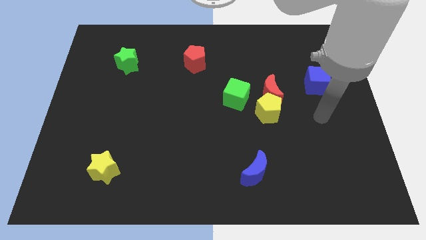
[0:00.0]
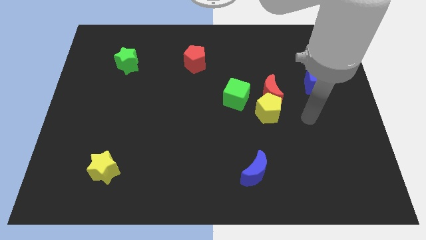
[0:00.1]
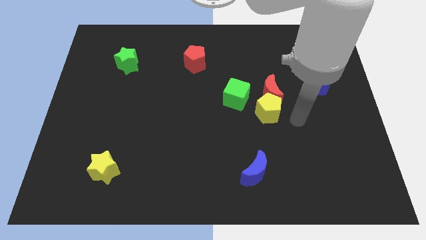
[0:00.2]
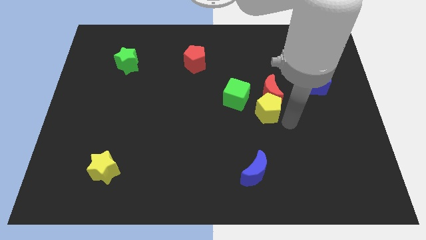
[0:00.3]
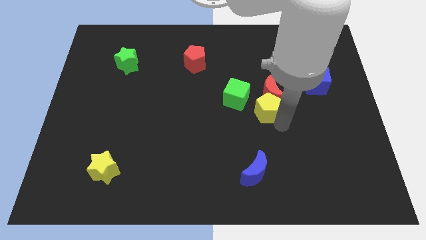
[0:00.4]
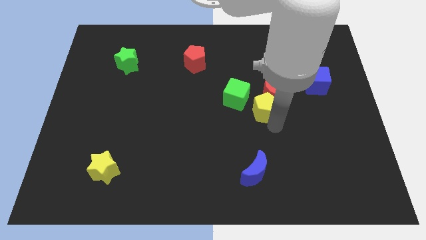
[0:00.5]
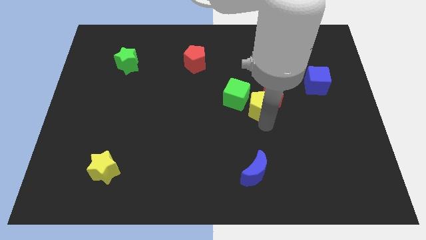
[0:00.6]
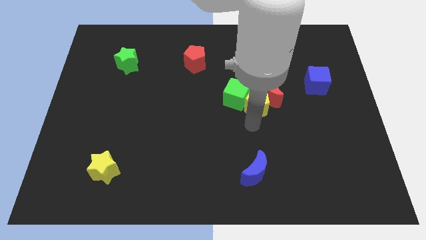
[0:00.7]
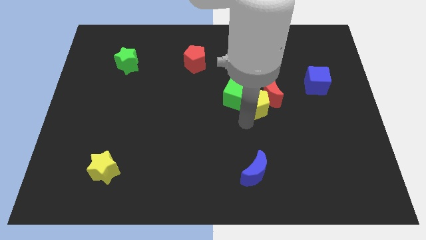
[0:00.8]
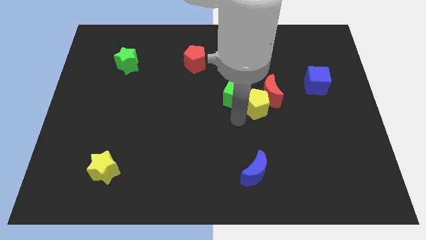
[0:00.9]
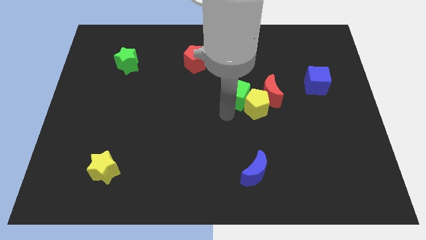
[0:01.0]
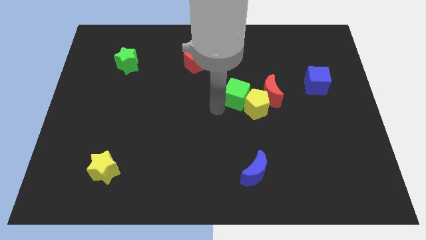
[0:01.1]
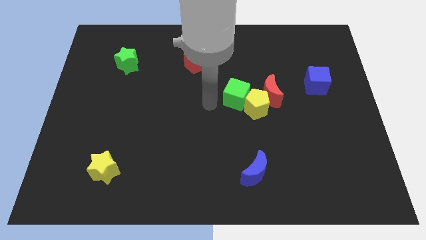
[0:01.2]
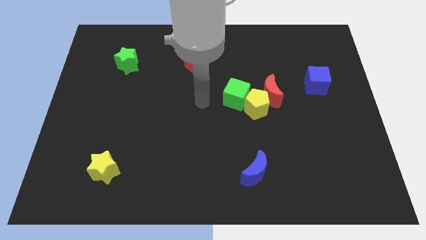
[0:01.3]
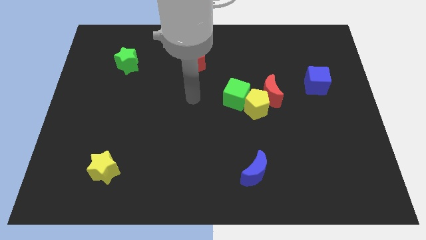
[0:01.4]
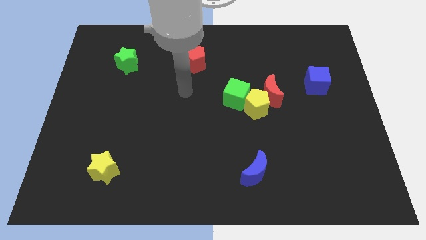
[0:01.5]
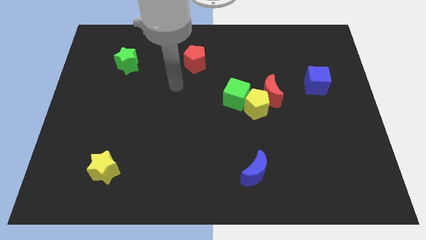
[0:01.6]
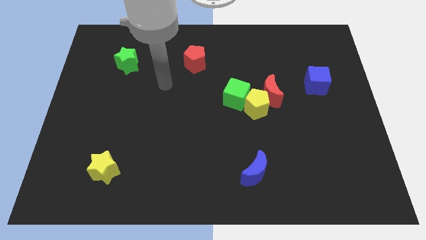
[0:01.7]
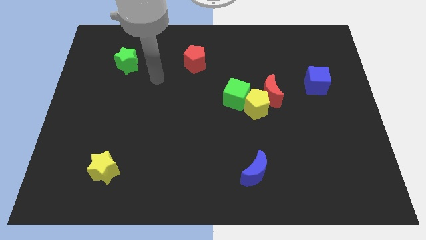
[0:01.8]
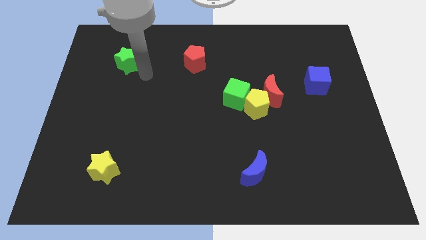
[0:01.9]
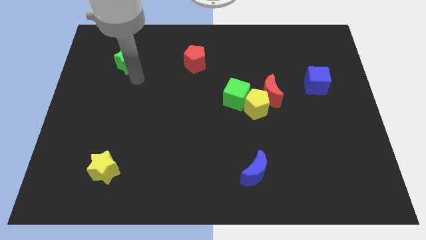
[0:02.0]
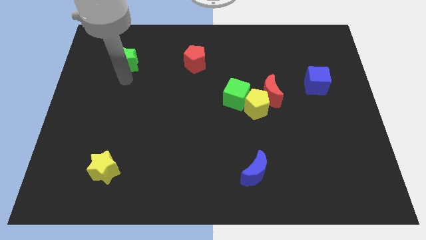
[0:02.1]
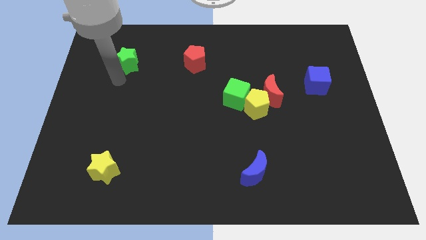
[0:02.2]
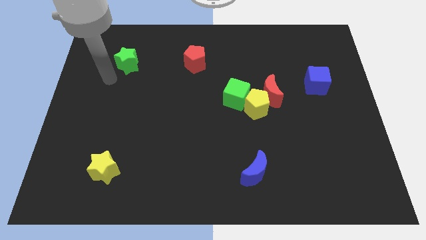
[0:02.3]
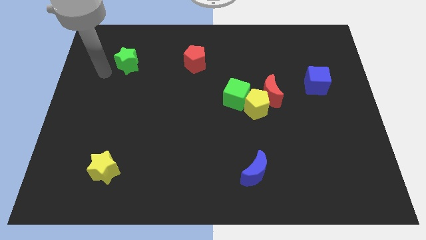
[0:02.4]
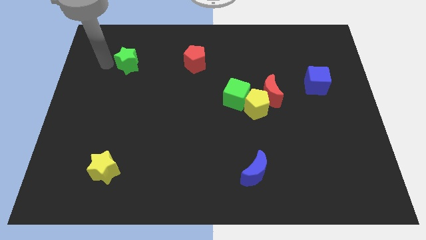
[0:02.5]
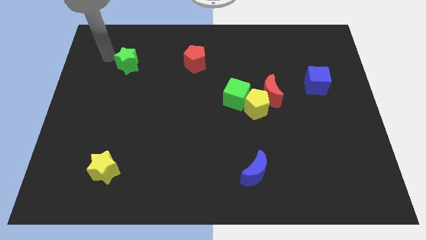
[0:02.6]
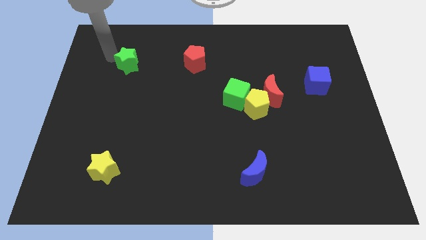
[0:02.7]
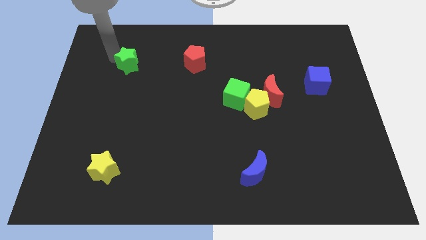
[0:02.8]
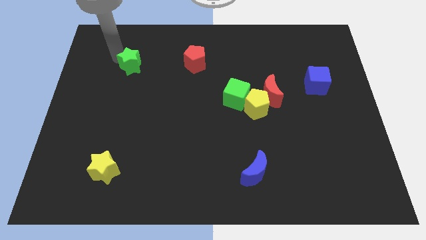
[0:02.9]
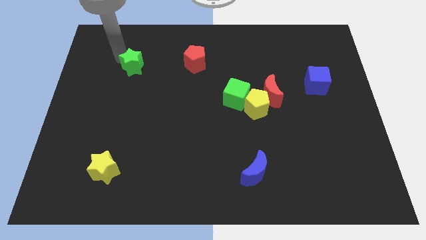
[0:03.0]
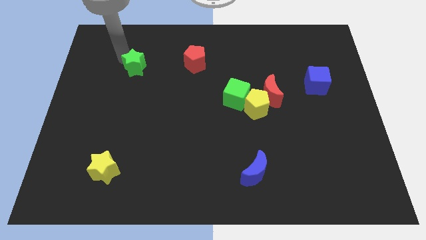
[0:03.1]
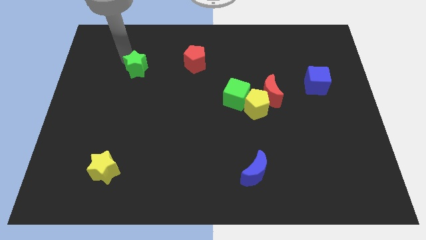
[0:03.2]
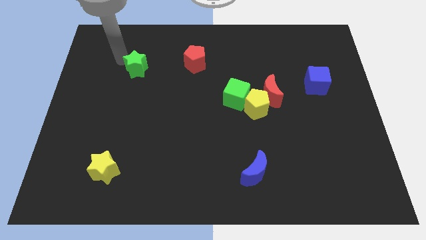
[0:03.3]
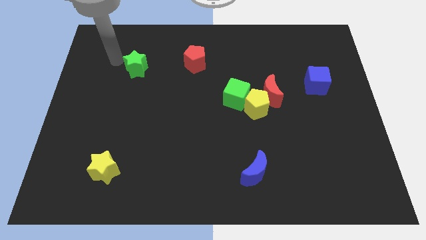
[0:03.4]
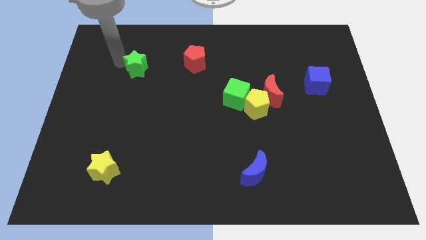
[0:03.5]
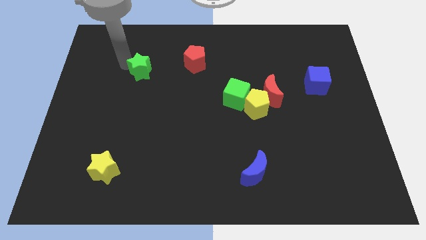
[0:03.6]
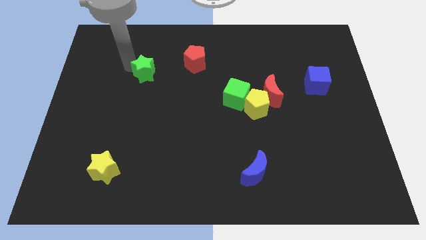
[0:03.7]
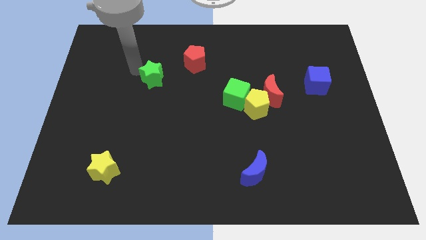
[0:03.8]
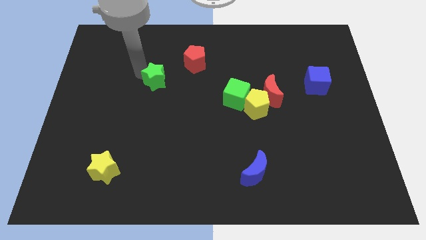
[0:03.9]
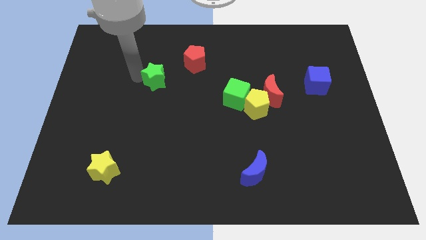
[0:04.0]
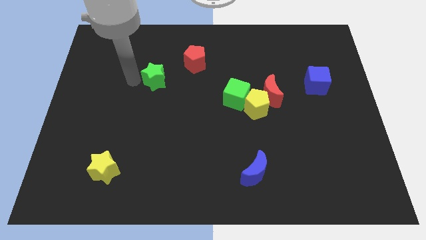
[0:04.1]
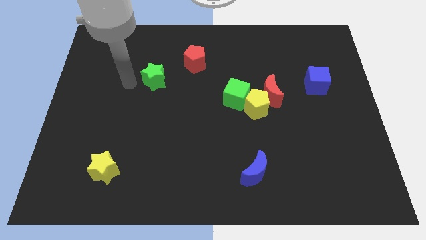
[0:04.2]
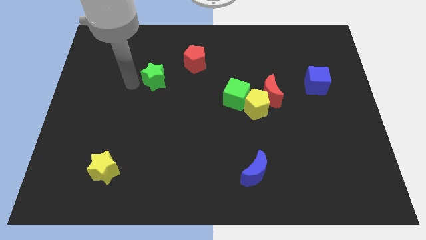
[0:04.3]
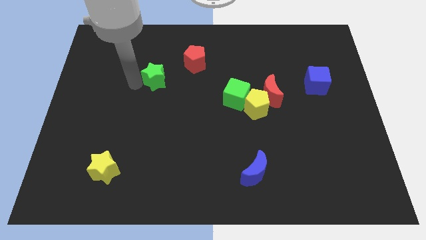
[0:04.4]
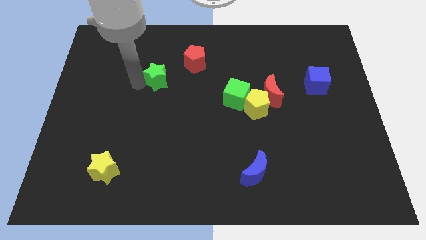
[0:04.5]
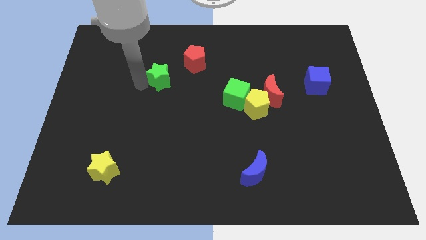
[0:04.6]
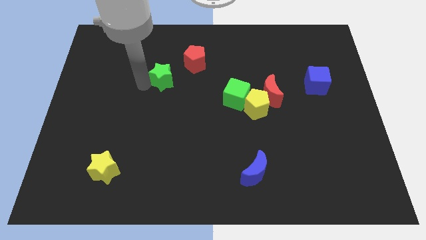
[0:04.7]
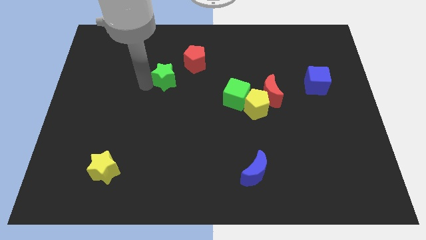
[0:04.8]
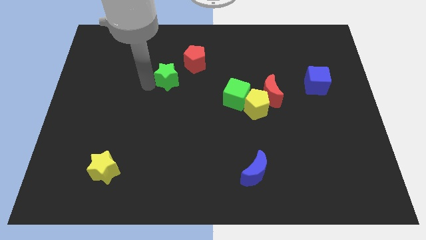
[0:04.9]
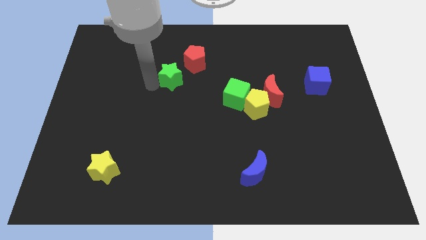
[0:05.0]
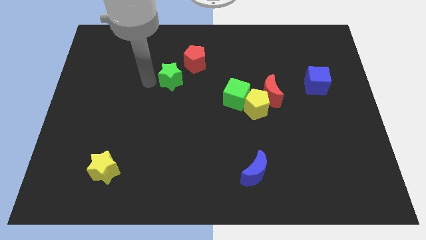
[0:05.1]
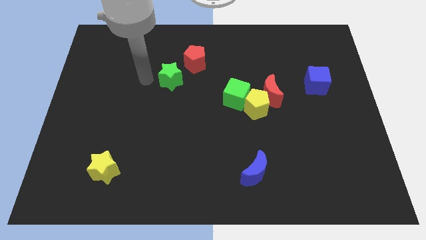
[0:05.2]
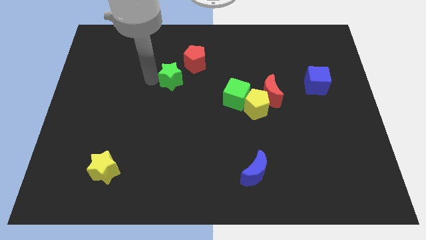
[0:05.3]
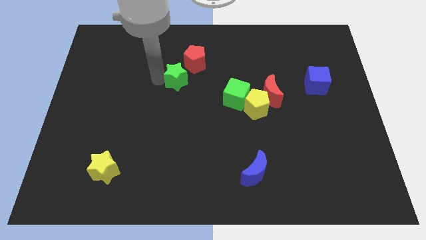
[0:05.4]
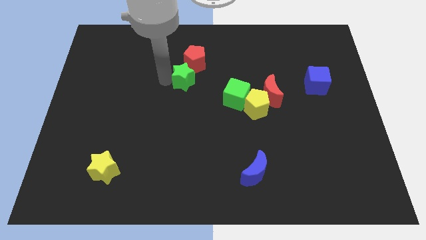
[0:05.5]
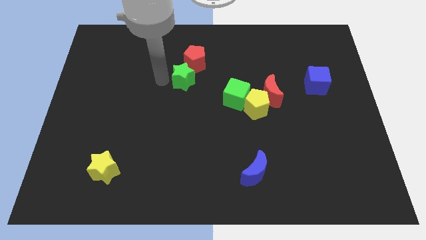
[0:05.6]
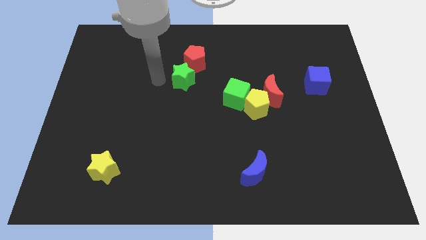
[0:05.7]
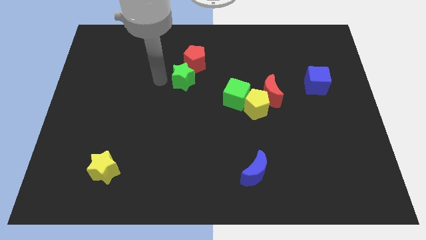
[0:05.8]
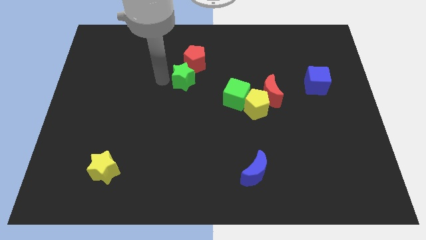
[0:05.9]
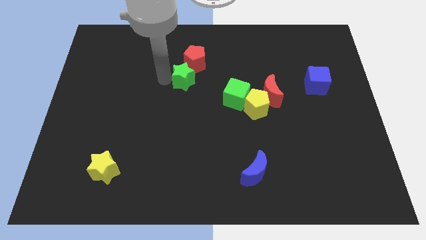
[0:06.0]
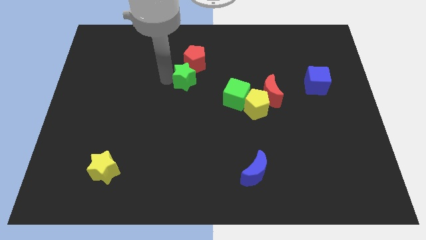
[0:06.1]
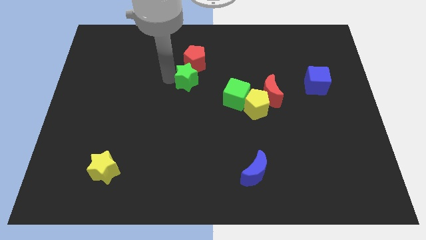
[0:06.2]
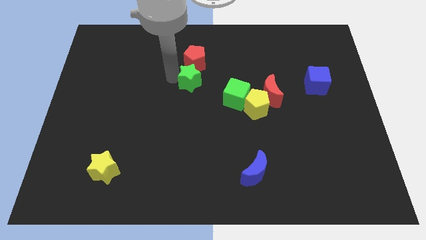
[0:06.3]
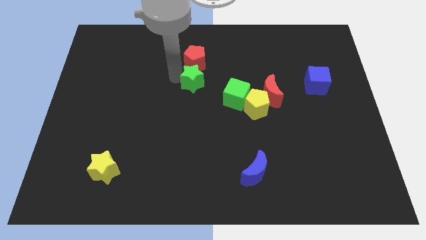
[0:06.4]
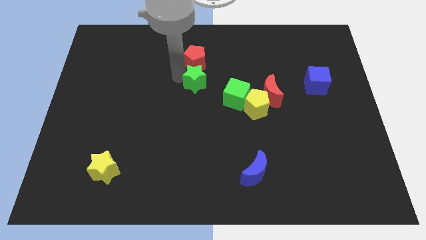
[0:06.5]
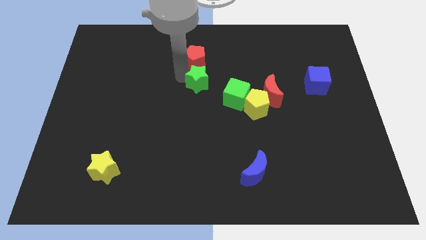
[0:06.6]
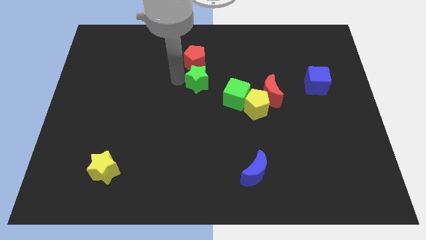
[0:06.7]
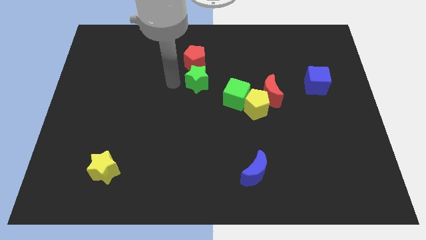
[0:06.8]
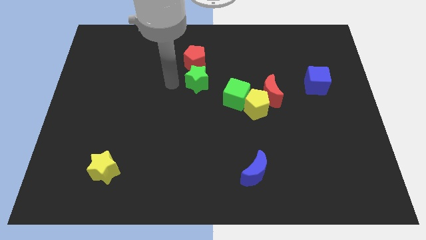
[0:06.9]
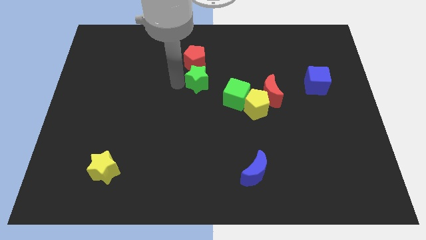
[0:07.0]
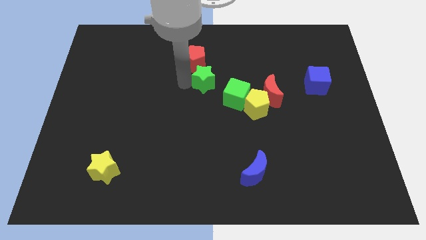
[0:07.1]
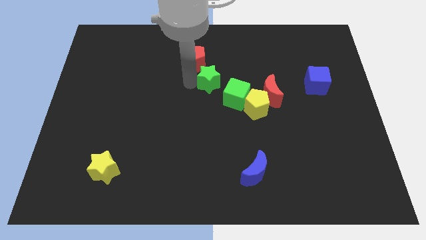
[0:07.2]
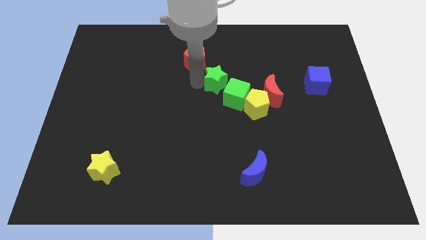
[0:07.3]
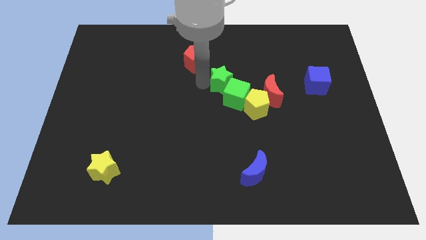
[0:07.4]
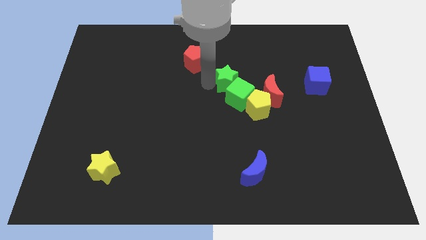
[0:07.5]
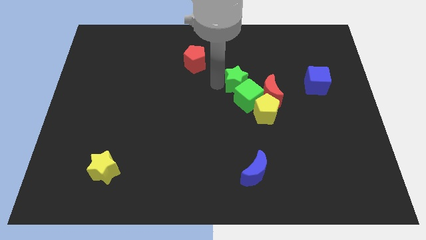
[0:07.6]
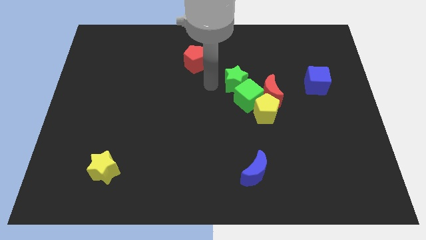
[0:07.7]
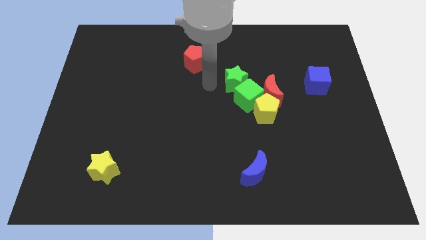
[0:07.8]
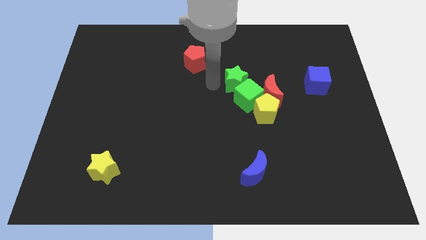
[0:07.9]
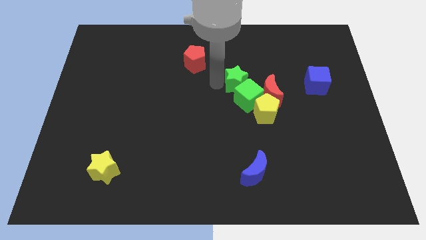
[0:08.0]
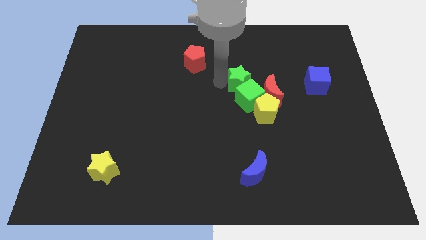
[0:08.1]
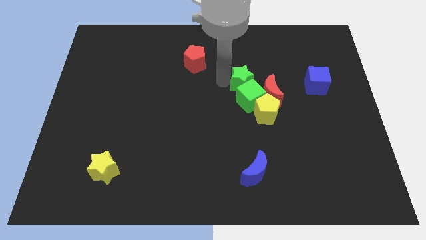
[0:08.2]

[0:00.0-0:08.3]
put the green star to the top right of the green cube
